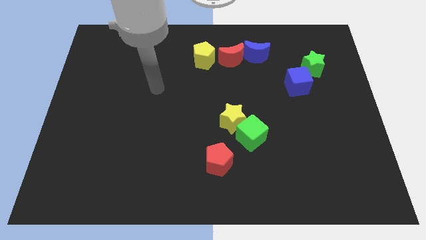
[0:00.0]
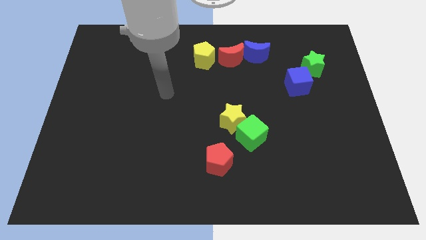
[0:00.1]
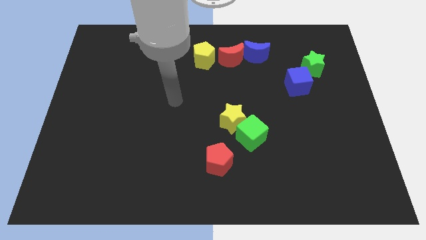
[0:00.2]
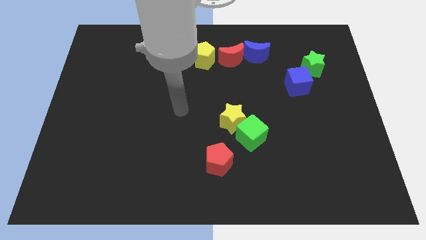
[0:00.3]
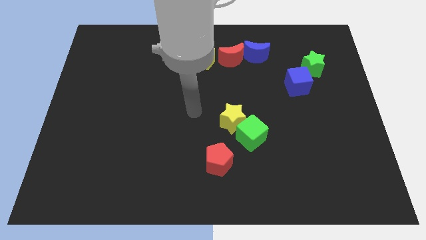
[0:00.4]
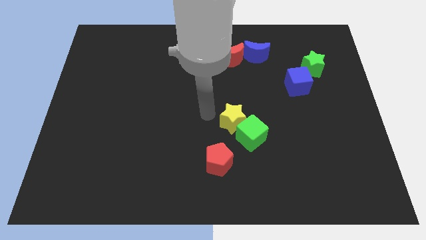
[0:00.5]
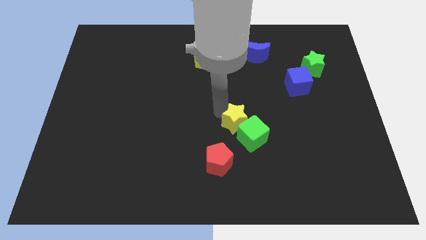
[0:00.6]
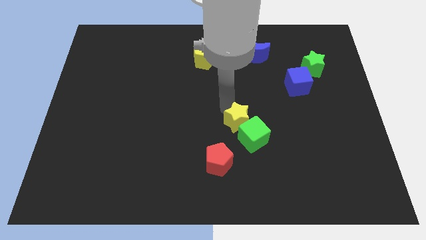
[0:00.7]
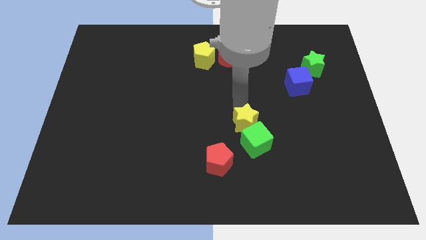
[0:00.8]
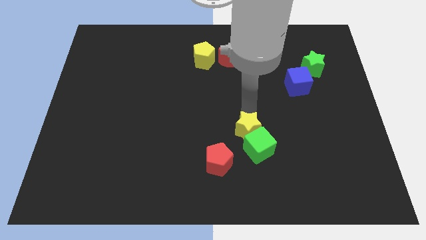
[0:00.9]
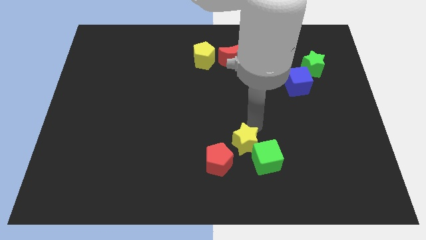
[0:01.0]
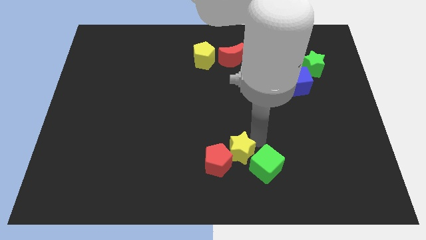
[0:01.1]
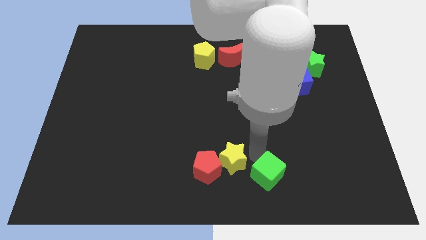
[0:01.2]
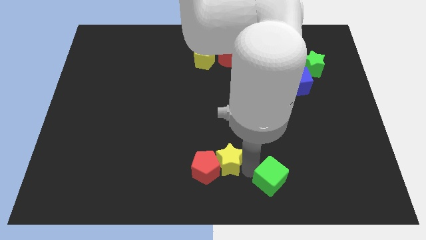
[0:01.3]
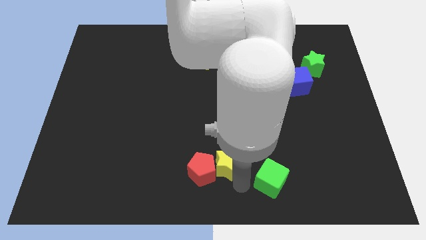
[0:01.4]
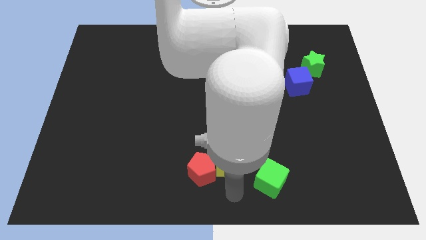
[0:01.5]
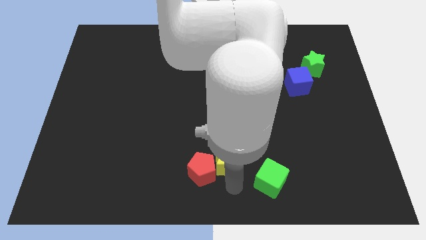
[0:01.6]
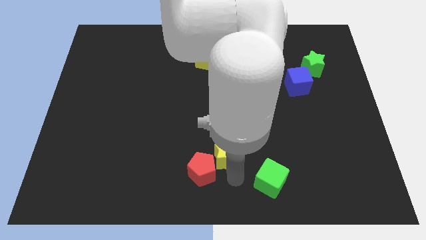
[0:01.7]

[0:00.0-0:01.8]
separate the yellow star from the green cube

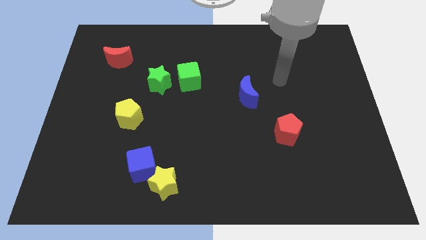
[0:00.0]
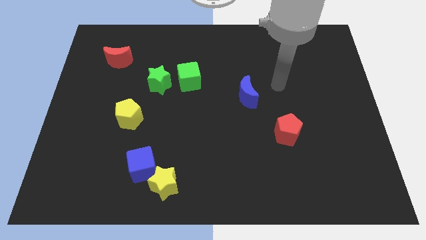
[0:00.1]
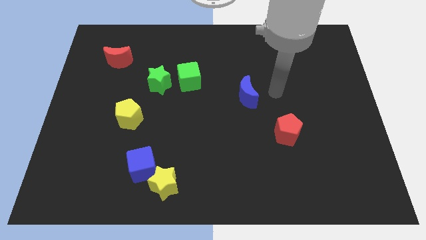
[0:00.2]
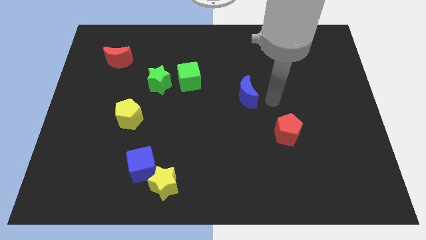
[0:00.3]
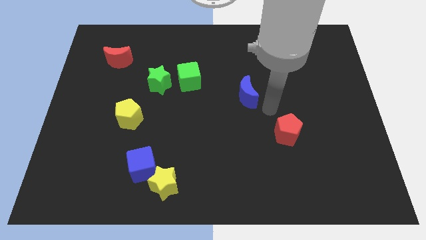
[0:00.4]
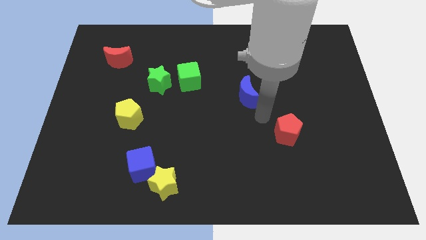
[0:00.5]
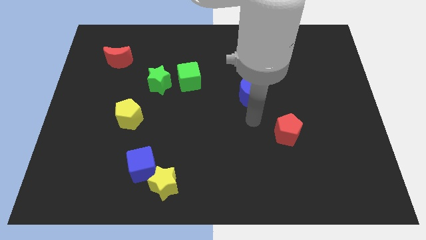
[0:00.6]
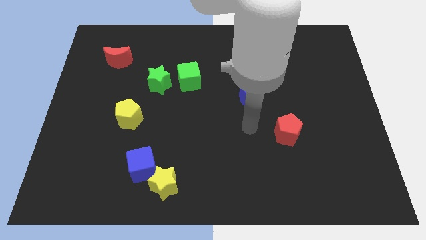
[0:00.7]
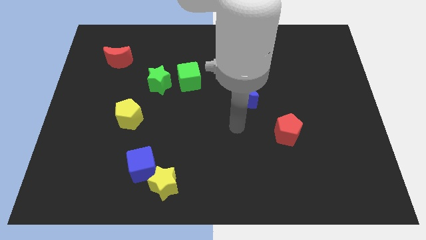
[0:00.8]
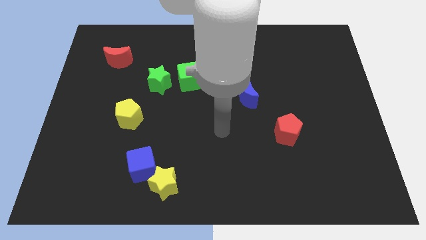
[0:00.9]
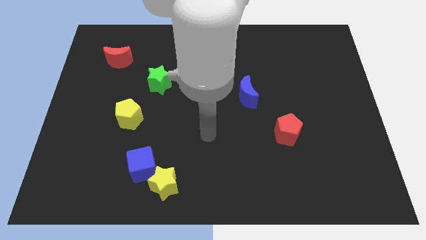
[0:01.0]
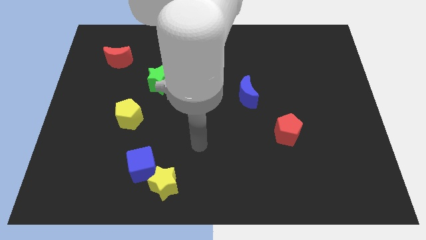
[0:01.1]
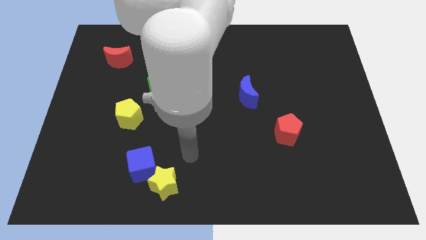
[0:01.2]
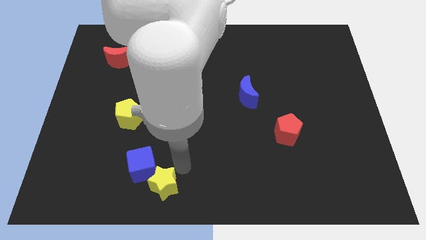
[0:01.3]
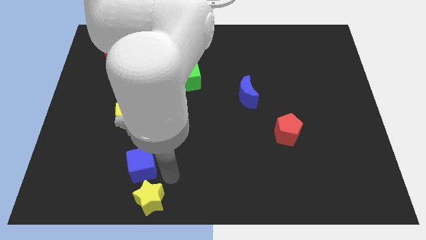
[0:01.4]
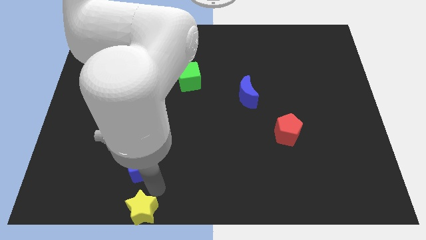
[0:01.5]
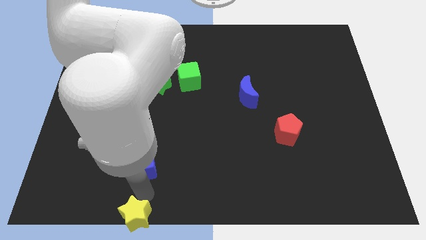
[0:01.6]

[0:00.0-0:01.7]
move the blue cube away from the yellow star

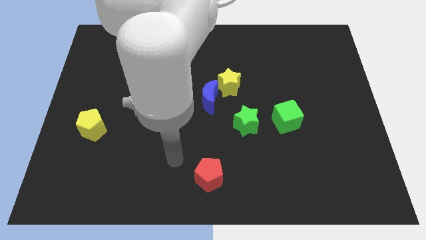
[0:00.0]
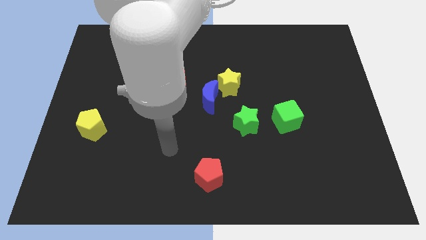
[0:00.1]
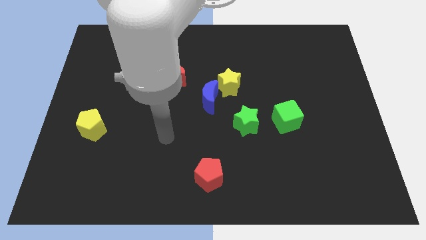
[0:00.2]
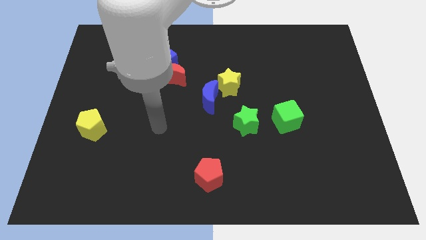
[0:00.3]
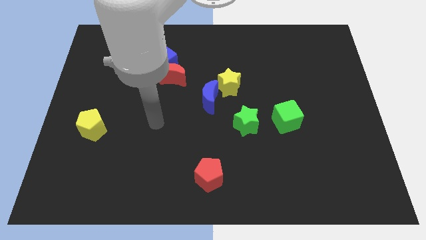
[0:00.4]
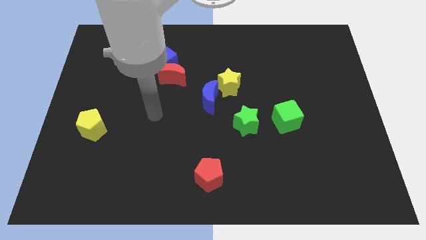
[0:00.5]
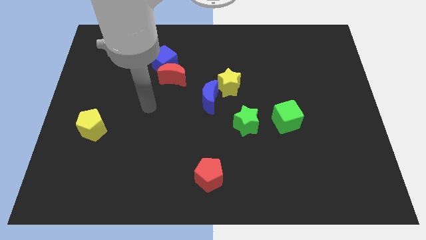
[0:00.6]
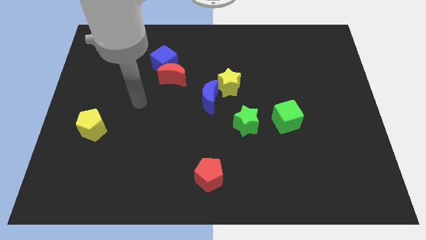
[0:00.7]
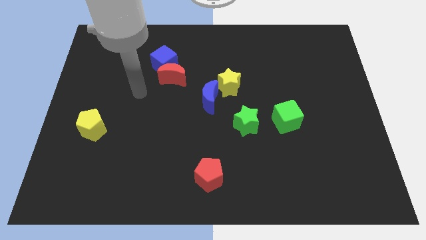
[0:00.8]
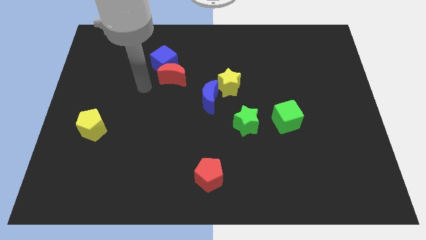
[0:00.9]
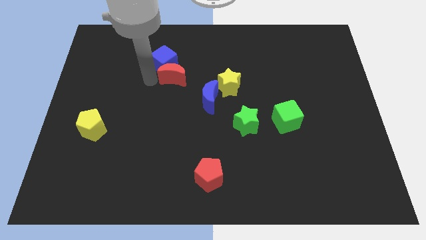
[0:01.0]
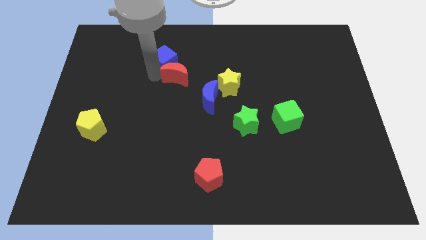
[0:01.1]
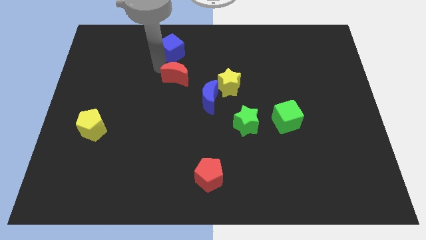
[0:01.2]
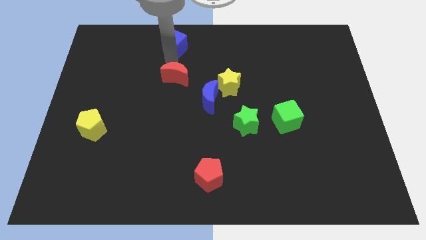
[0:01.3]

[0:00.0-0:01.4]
move the red moon away from the blue cube

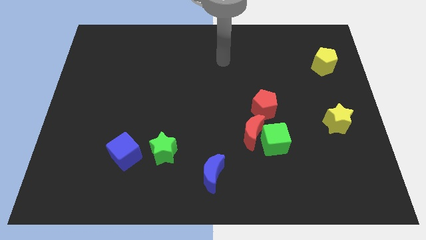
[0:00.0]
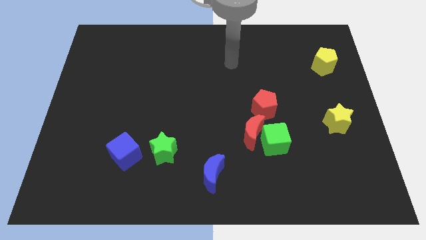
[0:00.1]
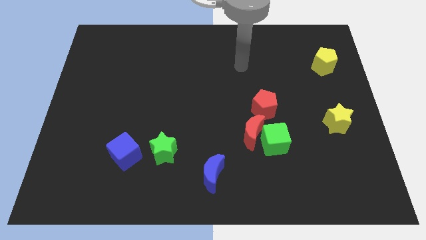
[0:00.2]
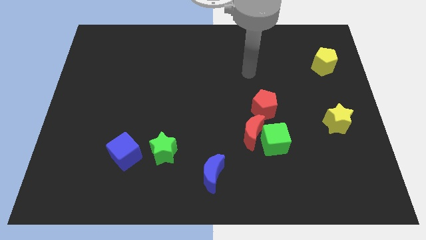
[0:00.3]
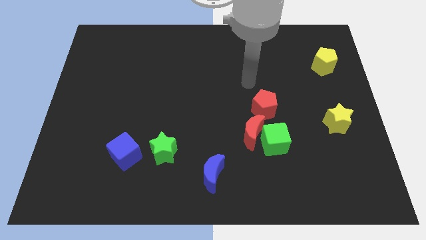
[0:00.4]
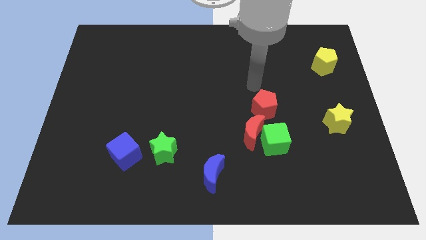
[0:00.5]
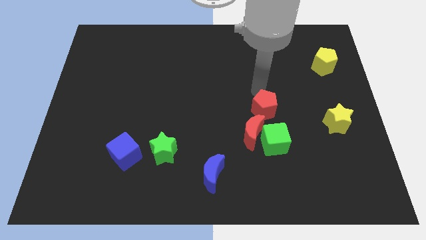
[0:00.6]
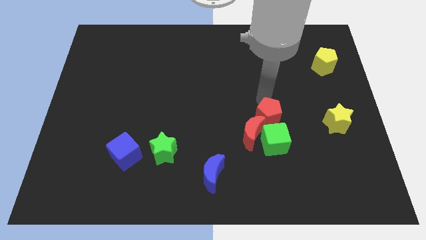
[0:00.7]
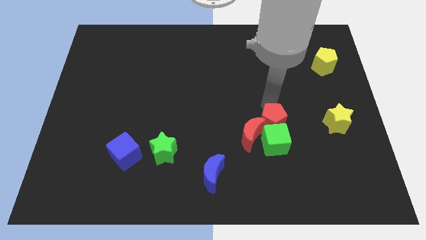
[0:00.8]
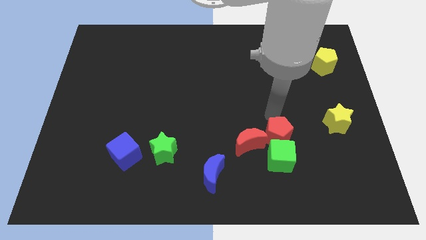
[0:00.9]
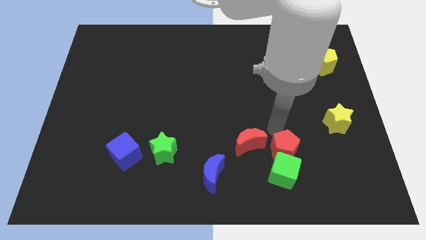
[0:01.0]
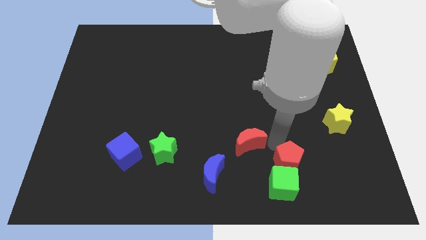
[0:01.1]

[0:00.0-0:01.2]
separate the red moon from the green cube and red pentagon

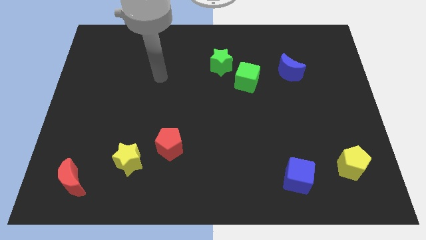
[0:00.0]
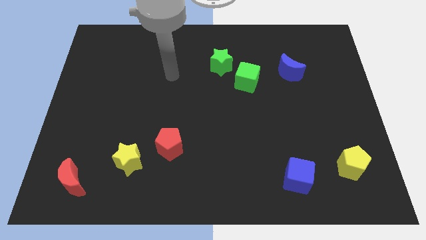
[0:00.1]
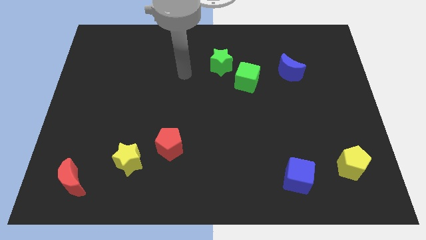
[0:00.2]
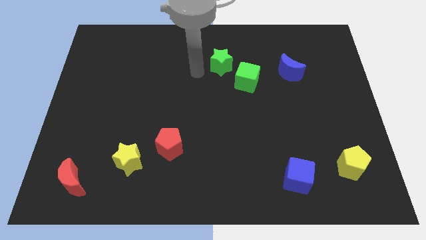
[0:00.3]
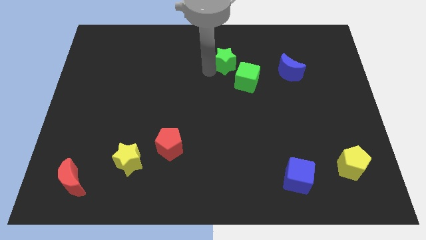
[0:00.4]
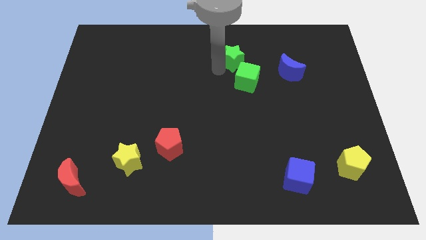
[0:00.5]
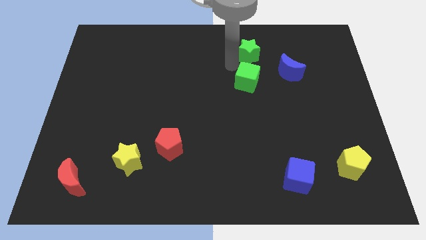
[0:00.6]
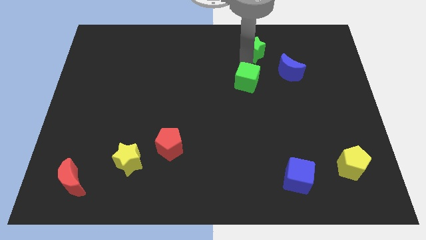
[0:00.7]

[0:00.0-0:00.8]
pull the green cube apart from the green star

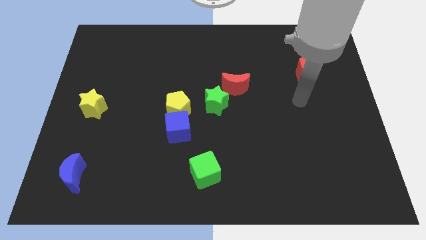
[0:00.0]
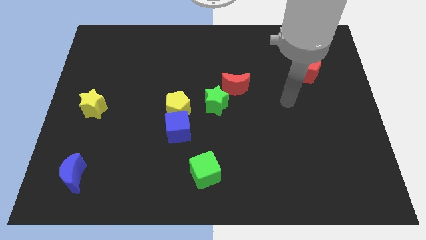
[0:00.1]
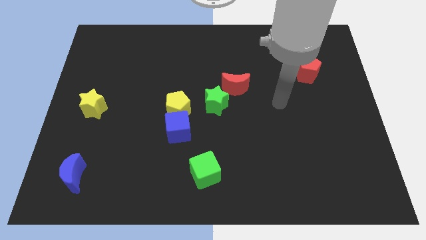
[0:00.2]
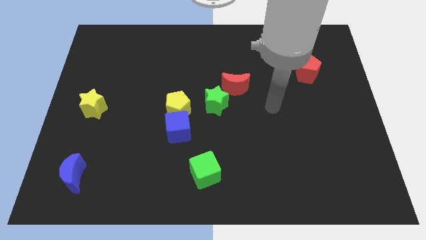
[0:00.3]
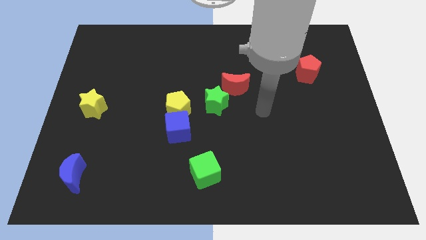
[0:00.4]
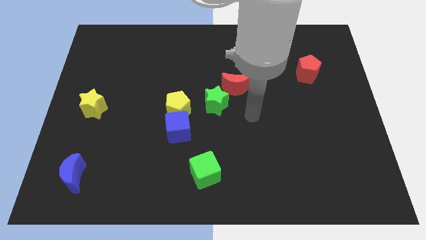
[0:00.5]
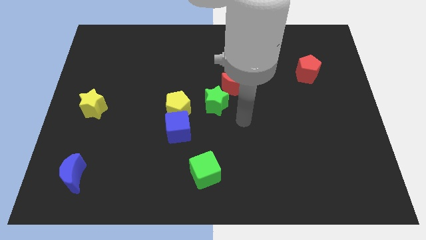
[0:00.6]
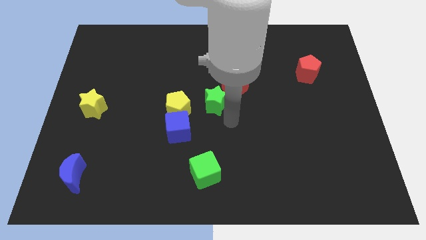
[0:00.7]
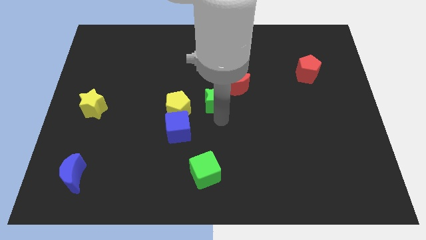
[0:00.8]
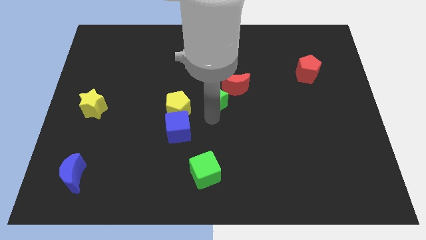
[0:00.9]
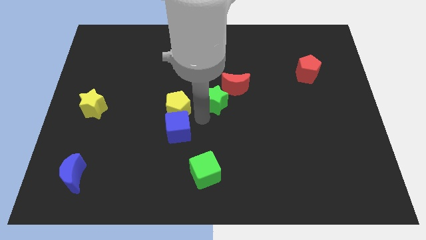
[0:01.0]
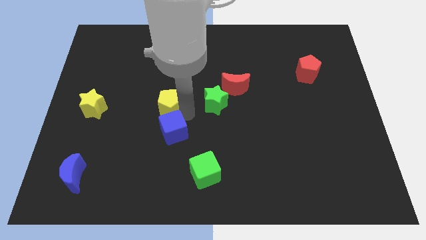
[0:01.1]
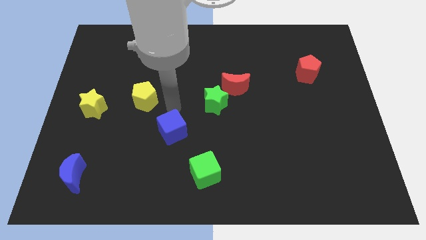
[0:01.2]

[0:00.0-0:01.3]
separate the blue cube from the yellow pentagon

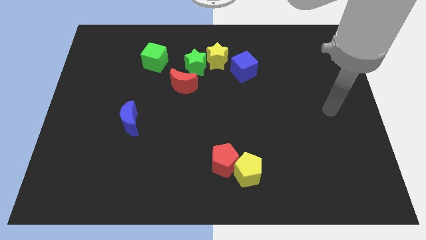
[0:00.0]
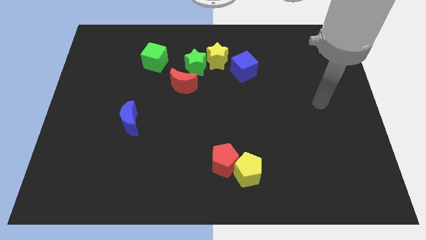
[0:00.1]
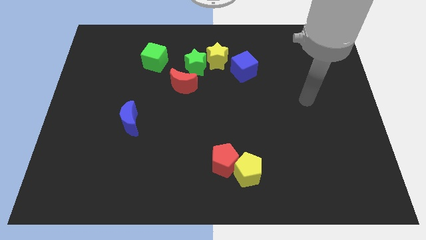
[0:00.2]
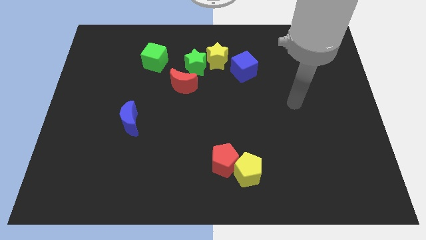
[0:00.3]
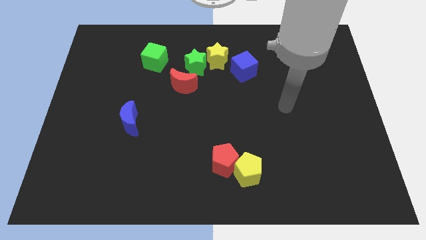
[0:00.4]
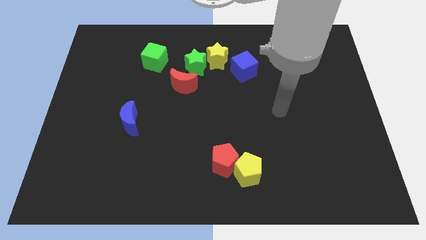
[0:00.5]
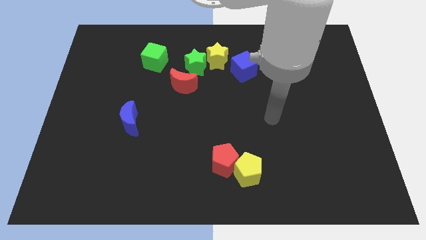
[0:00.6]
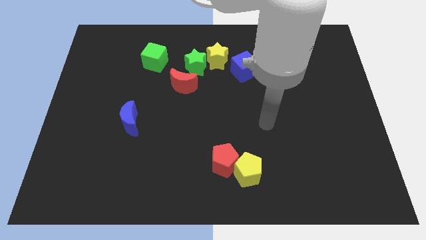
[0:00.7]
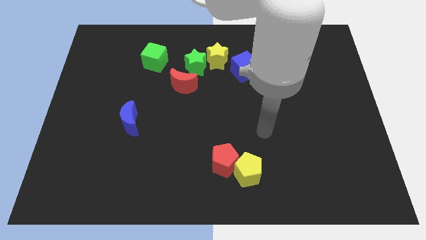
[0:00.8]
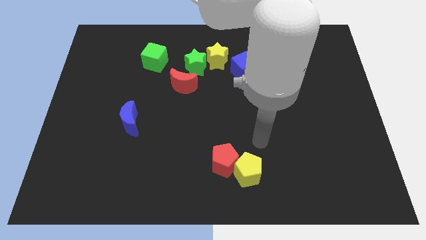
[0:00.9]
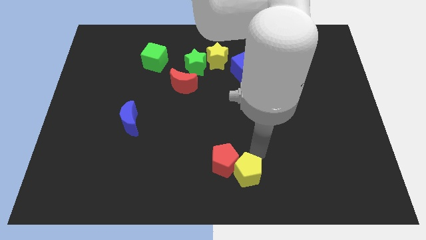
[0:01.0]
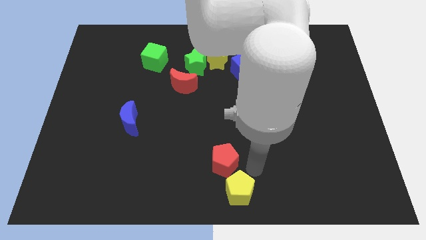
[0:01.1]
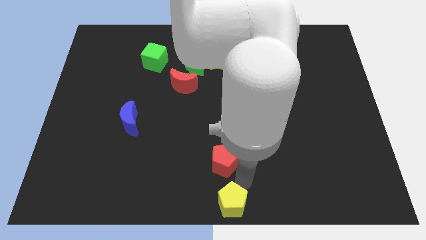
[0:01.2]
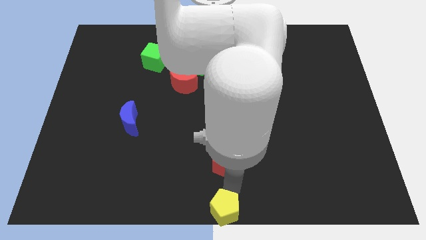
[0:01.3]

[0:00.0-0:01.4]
separate the red pentagon from the yellow pentagon
